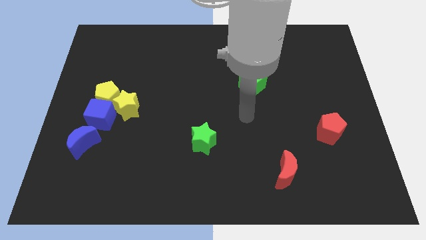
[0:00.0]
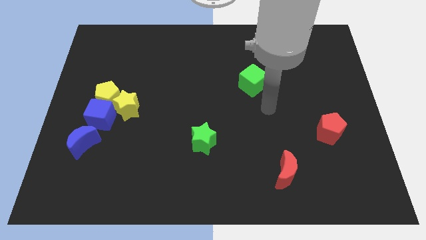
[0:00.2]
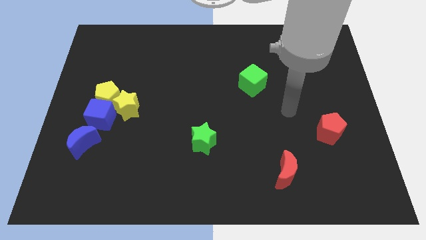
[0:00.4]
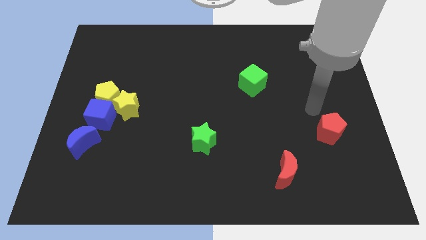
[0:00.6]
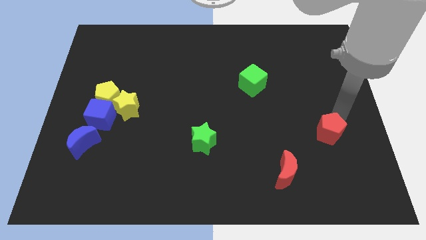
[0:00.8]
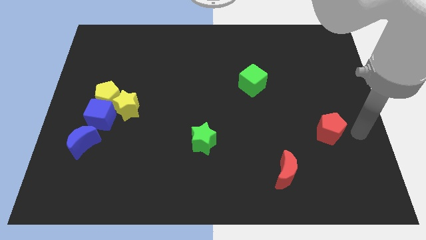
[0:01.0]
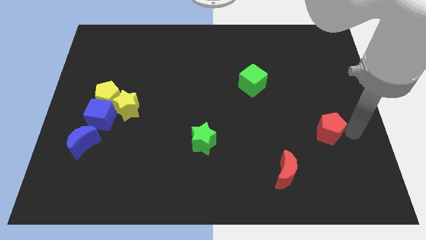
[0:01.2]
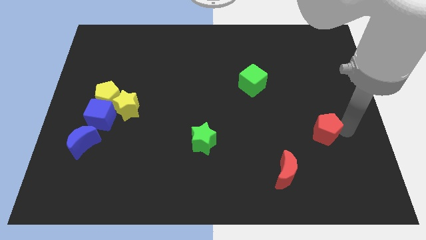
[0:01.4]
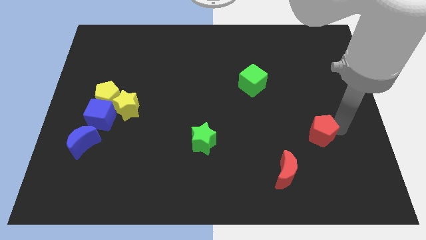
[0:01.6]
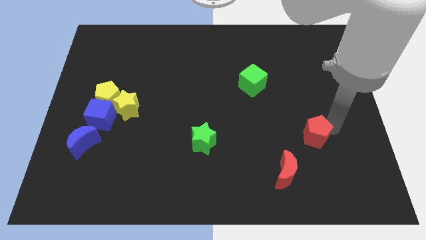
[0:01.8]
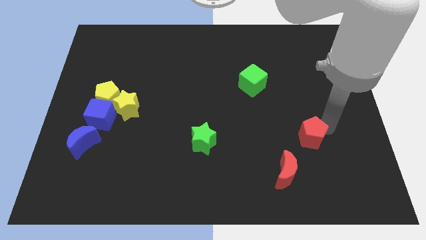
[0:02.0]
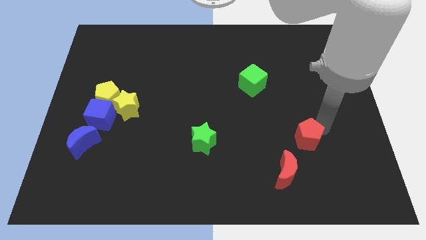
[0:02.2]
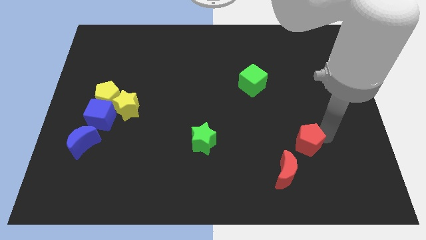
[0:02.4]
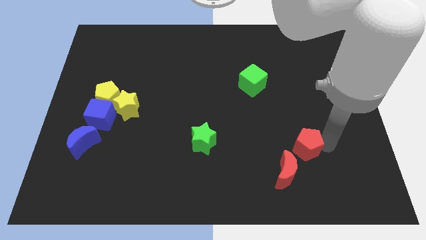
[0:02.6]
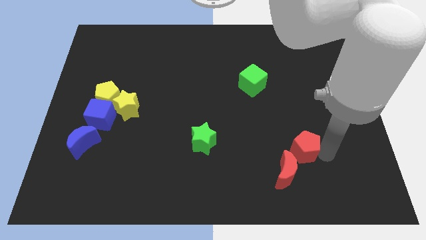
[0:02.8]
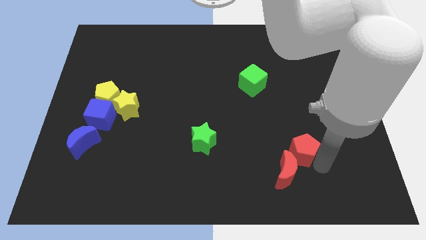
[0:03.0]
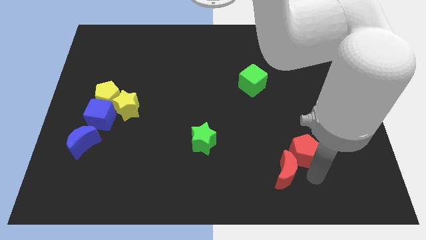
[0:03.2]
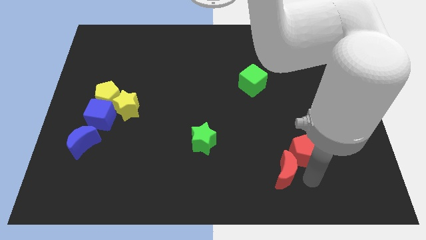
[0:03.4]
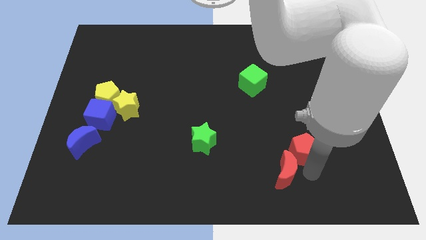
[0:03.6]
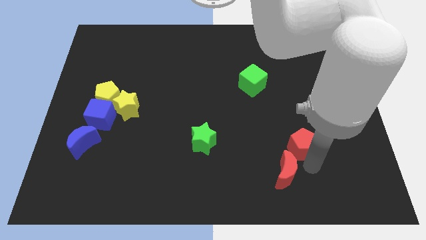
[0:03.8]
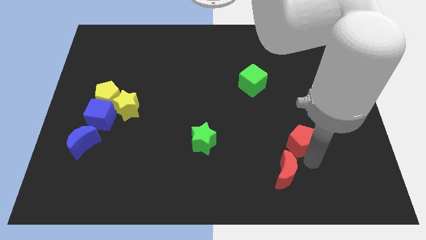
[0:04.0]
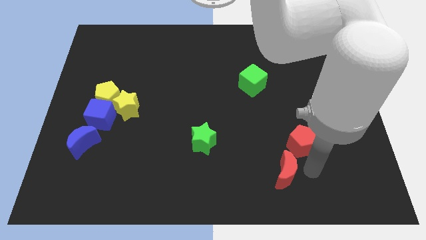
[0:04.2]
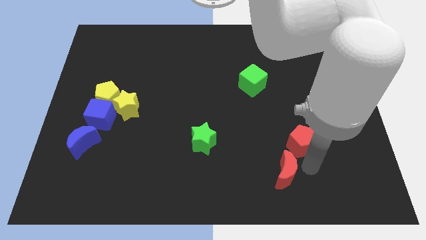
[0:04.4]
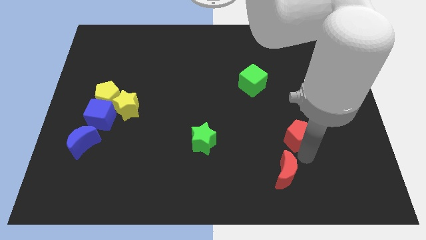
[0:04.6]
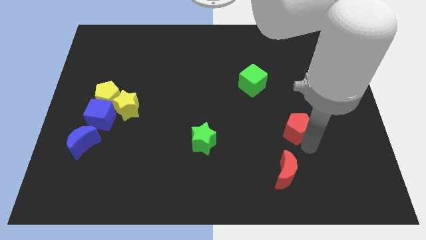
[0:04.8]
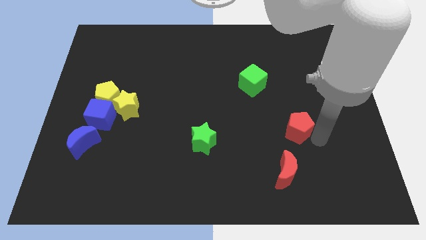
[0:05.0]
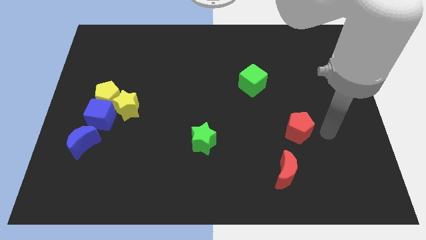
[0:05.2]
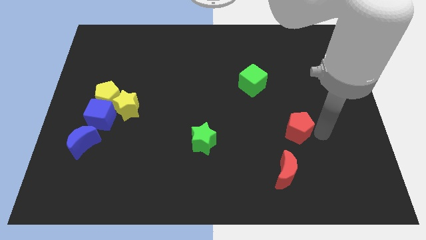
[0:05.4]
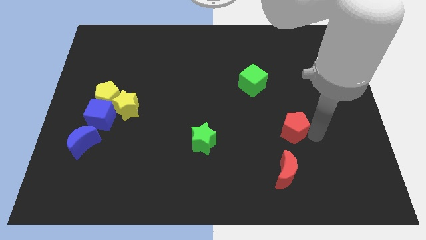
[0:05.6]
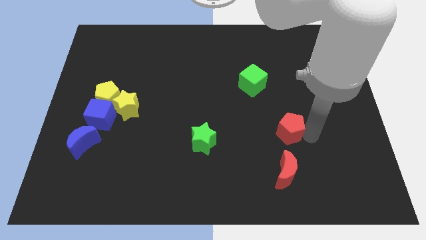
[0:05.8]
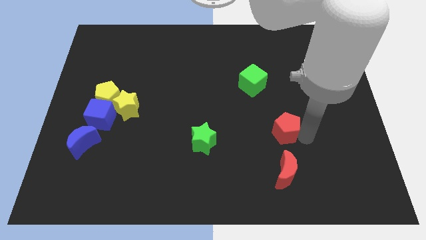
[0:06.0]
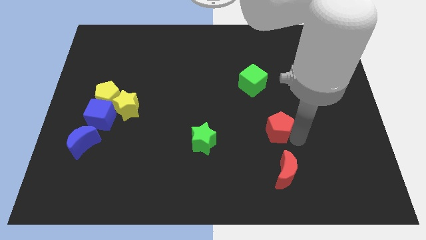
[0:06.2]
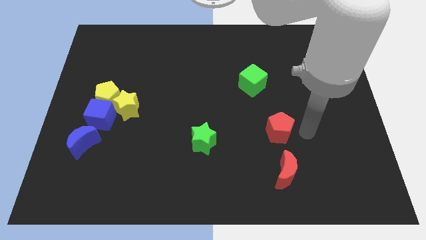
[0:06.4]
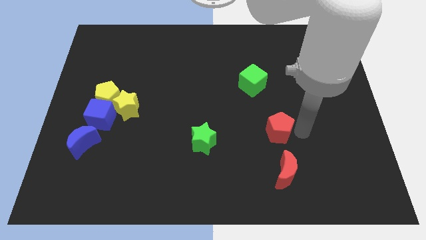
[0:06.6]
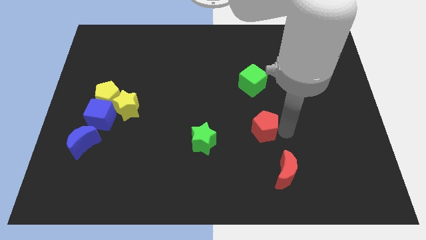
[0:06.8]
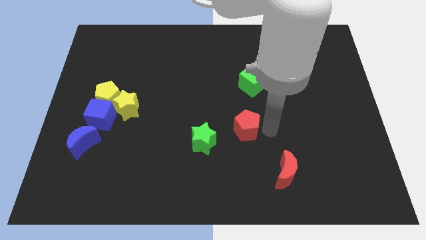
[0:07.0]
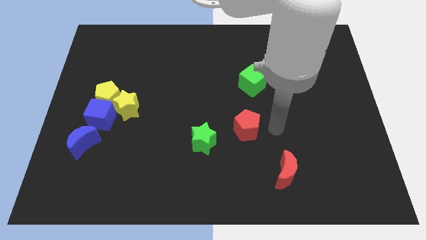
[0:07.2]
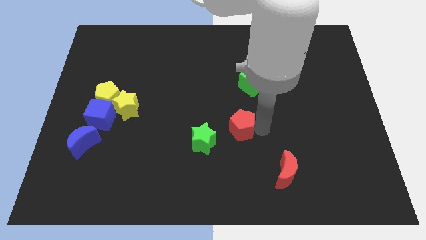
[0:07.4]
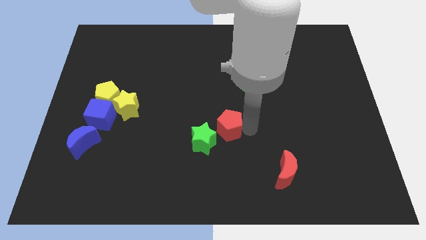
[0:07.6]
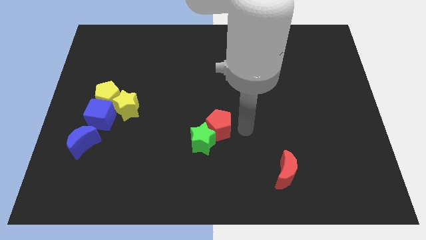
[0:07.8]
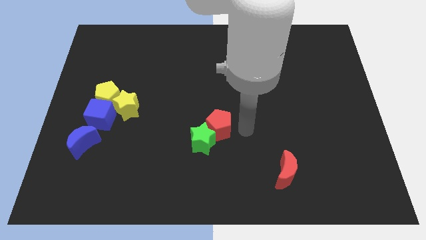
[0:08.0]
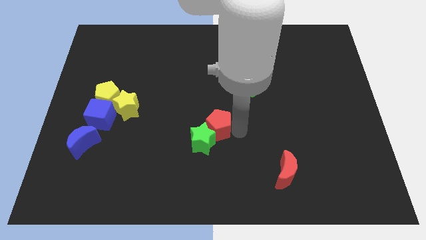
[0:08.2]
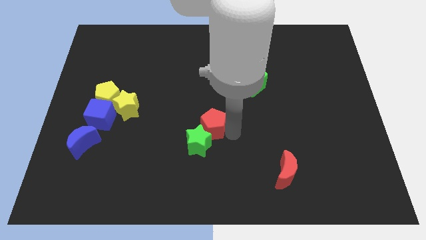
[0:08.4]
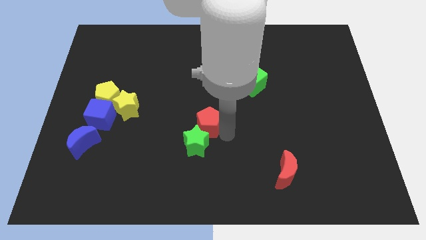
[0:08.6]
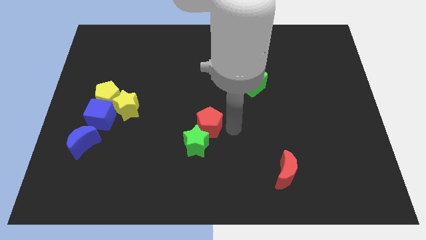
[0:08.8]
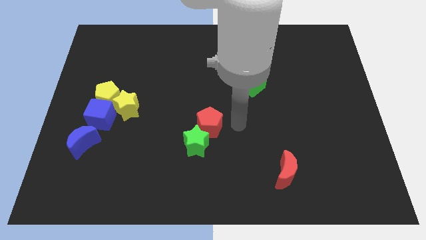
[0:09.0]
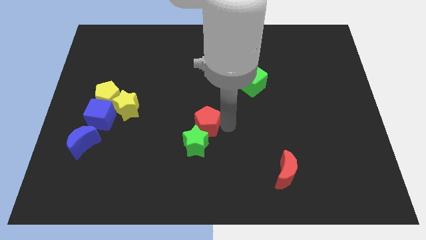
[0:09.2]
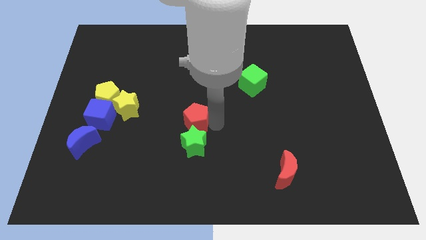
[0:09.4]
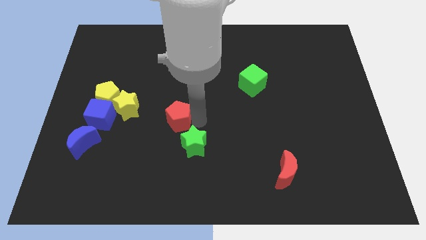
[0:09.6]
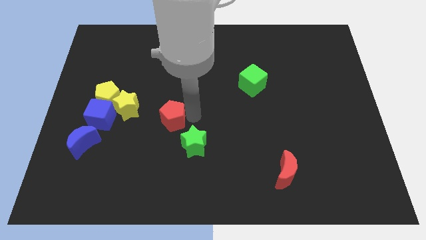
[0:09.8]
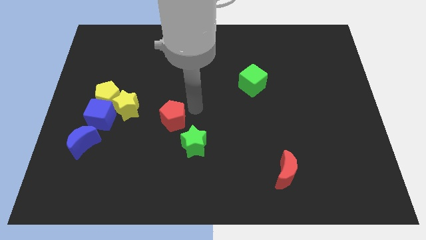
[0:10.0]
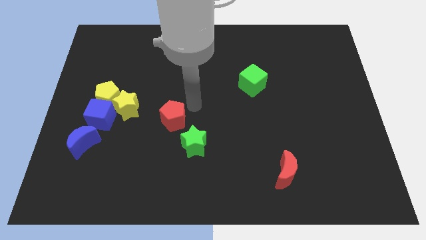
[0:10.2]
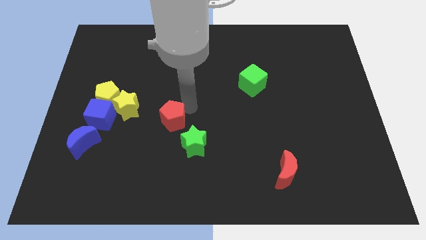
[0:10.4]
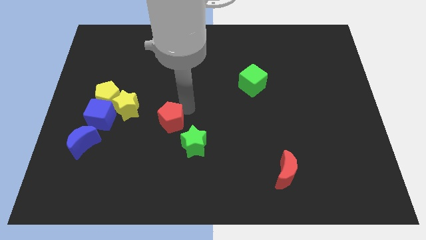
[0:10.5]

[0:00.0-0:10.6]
put the red pentagon just right of the blue cube

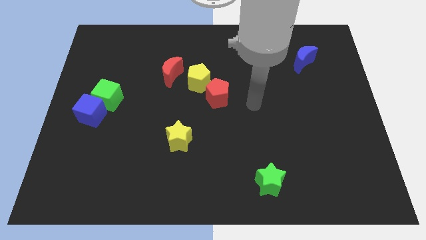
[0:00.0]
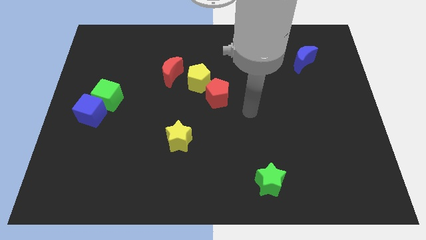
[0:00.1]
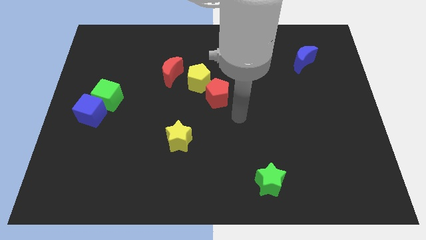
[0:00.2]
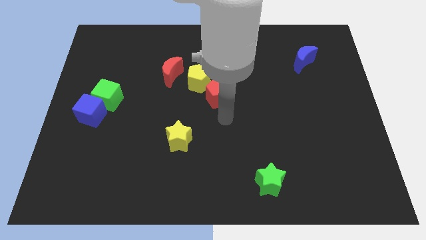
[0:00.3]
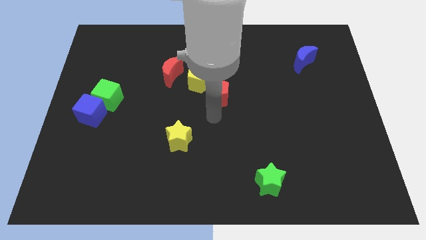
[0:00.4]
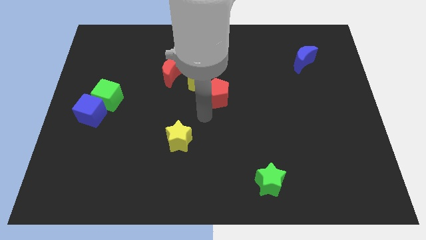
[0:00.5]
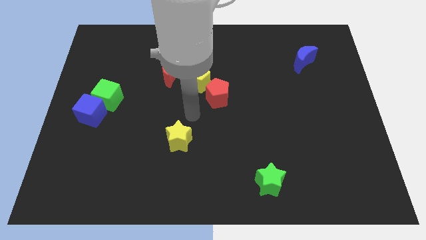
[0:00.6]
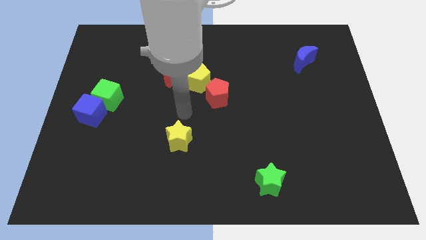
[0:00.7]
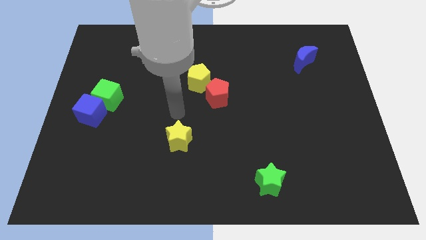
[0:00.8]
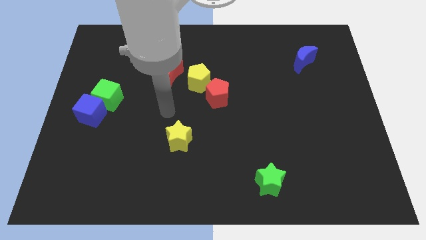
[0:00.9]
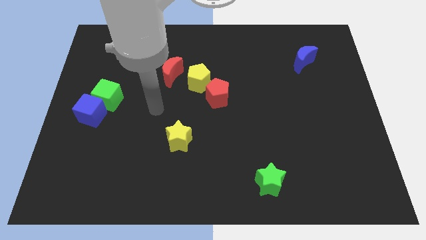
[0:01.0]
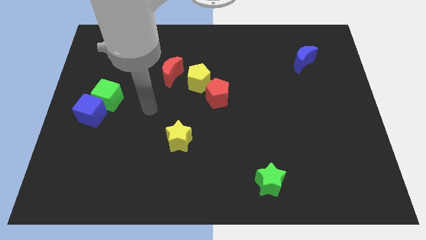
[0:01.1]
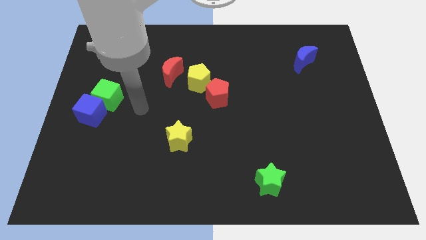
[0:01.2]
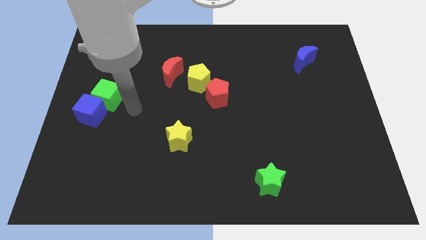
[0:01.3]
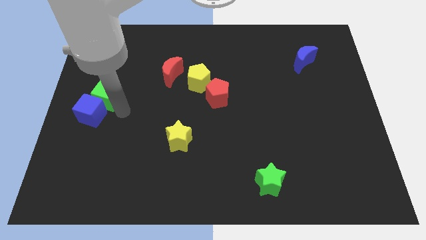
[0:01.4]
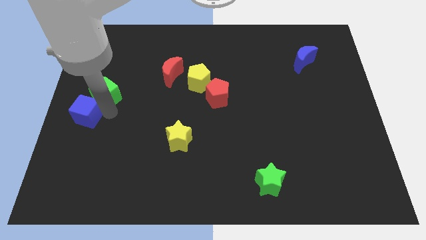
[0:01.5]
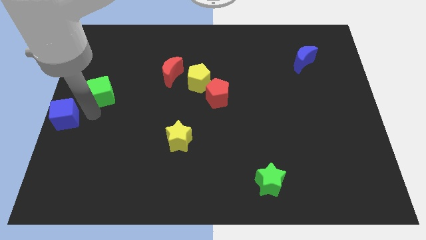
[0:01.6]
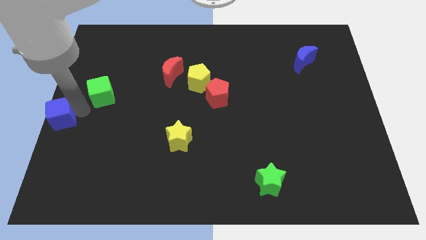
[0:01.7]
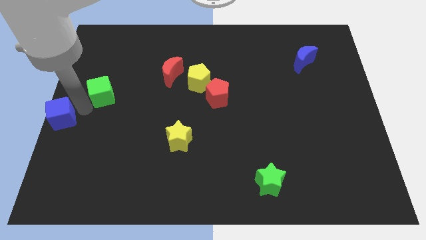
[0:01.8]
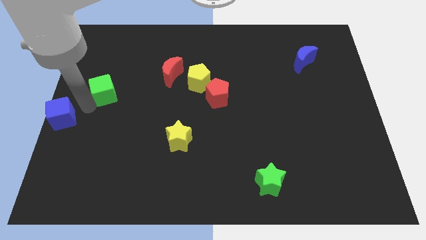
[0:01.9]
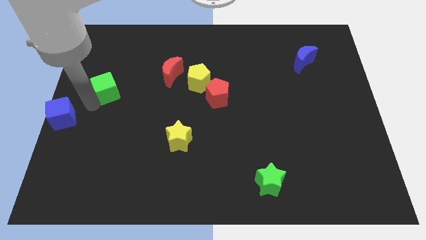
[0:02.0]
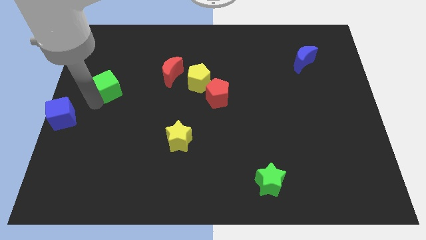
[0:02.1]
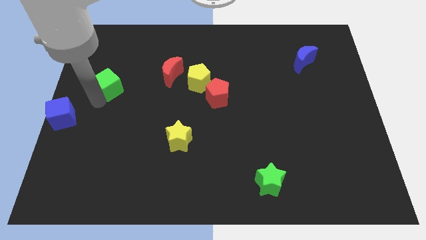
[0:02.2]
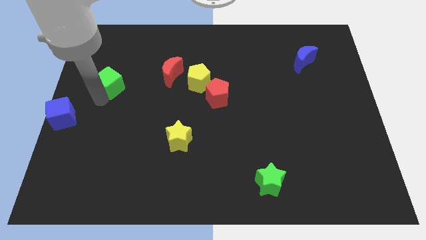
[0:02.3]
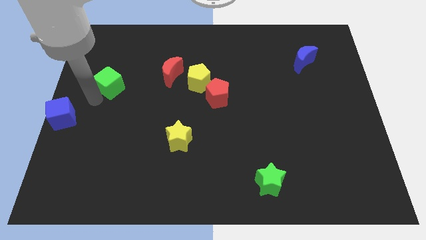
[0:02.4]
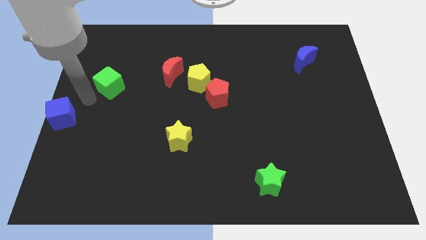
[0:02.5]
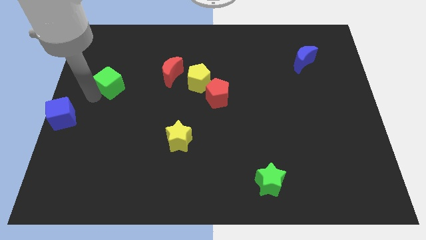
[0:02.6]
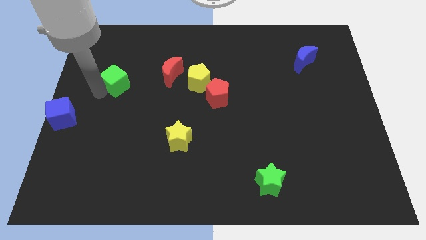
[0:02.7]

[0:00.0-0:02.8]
put the green cube to the left of the red moon
